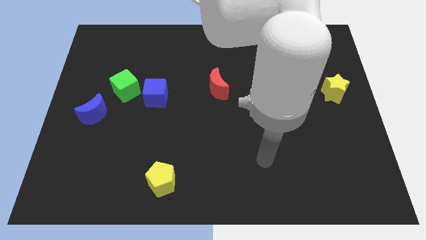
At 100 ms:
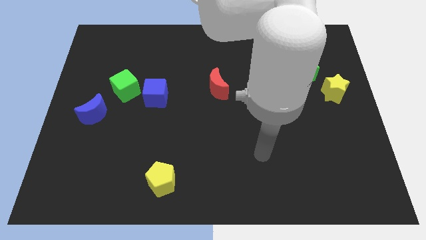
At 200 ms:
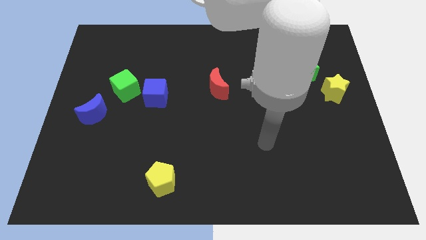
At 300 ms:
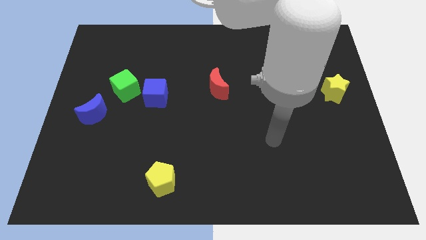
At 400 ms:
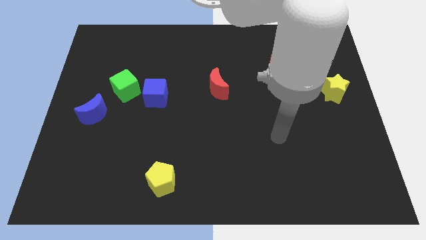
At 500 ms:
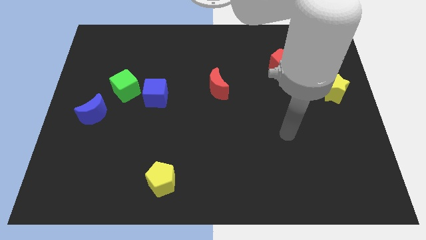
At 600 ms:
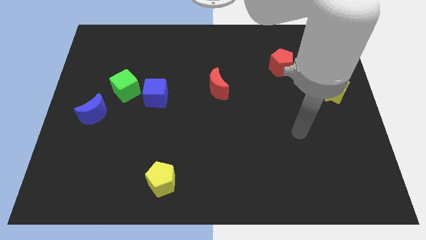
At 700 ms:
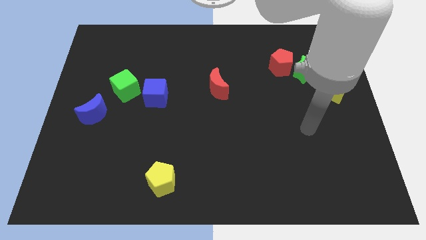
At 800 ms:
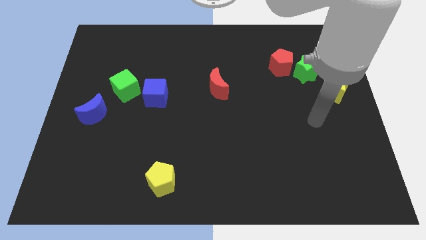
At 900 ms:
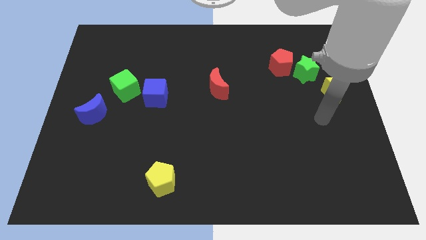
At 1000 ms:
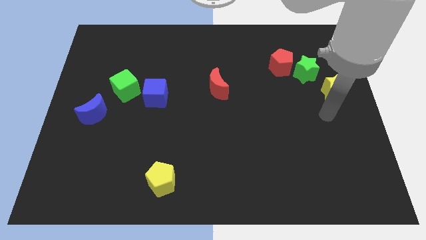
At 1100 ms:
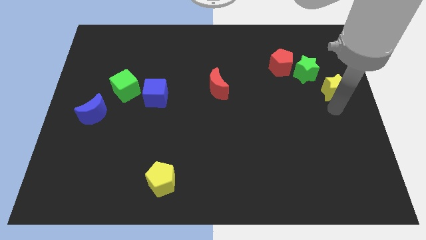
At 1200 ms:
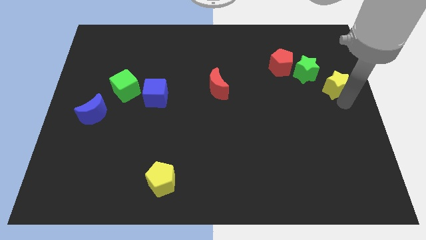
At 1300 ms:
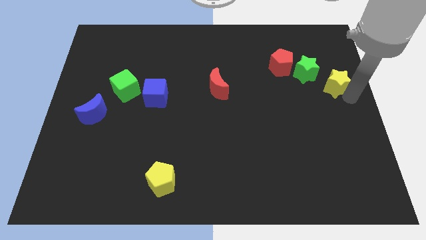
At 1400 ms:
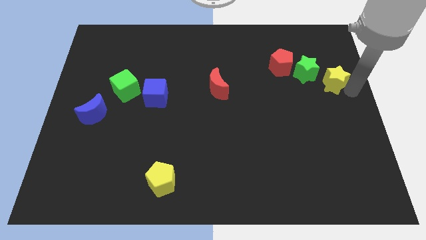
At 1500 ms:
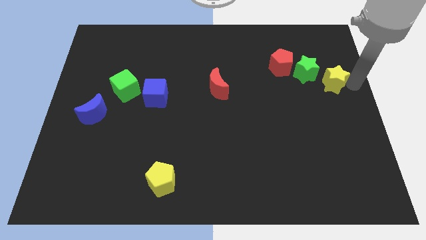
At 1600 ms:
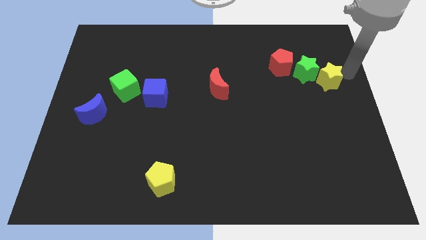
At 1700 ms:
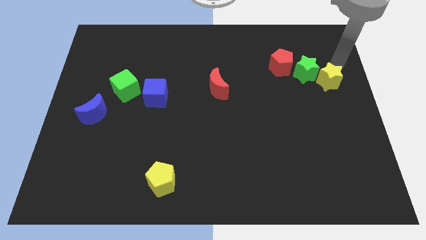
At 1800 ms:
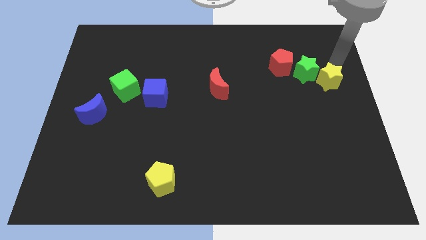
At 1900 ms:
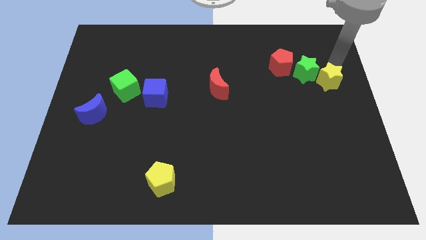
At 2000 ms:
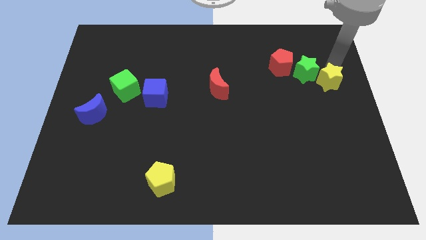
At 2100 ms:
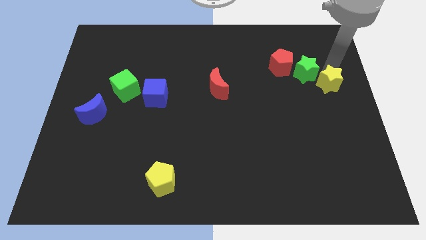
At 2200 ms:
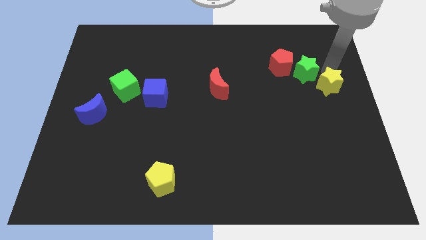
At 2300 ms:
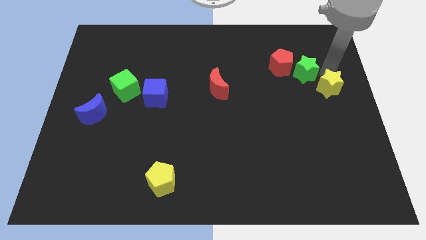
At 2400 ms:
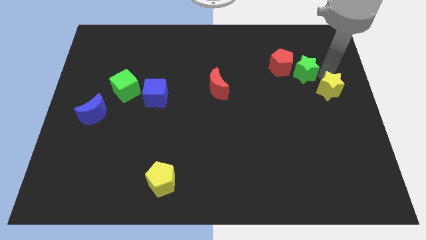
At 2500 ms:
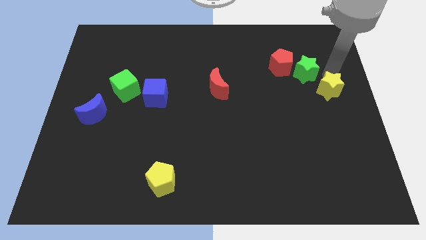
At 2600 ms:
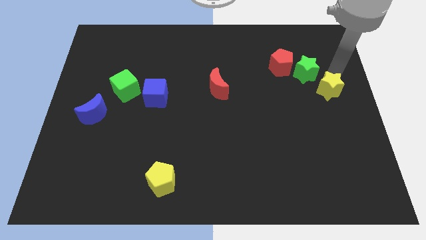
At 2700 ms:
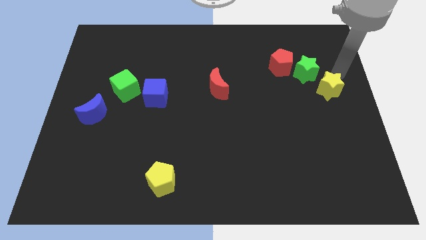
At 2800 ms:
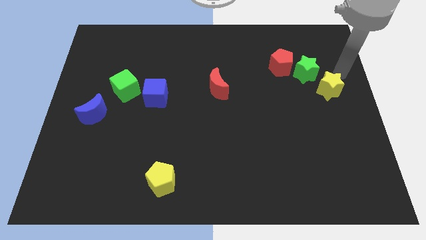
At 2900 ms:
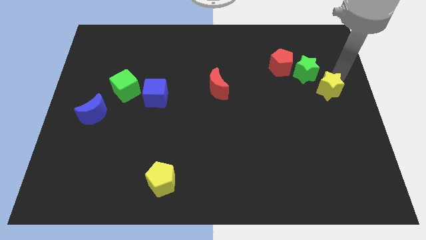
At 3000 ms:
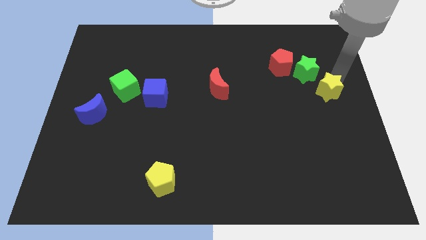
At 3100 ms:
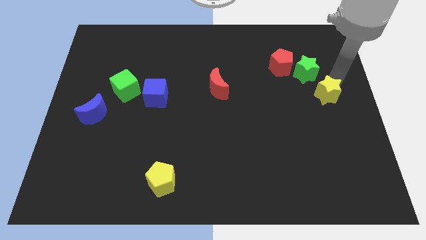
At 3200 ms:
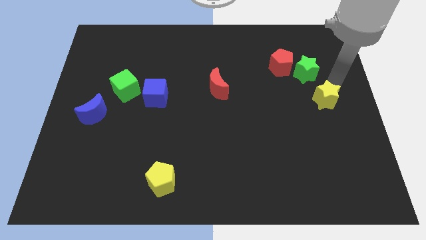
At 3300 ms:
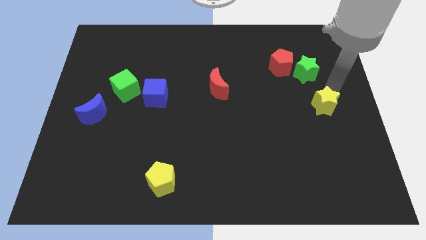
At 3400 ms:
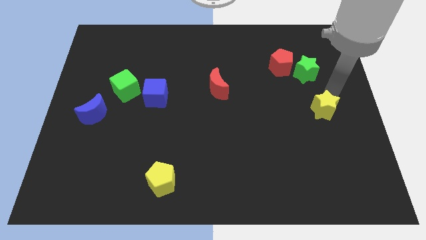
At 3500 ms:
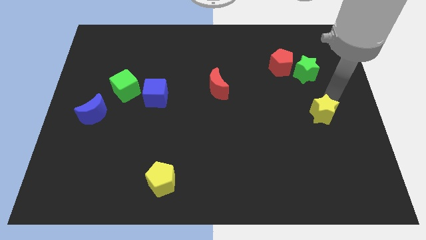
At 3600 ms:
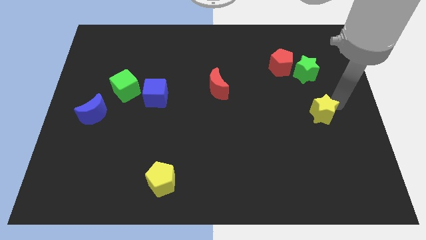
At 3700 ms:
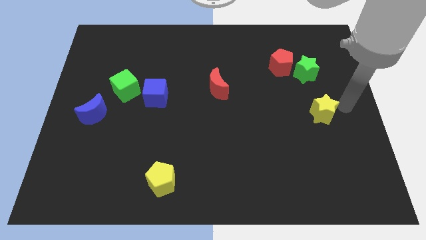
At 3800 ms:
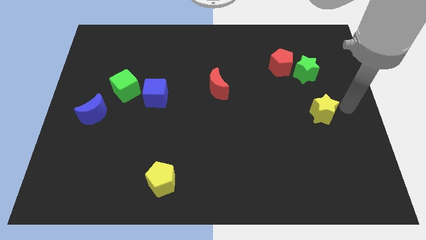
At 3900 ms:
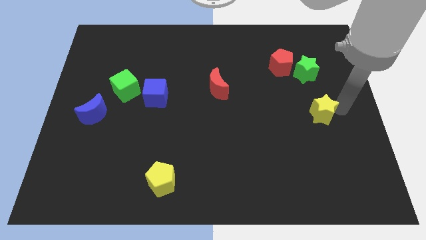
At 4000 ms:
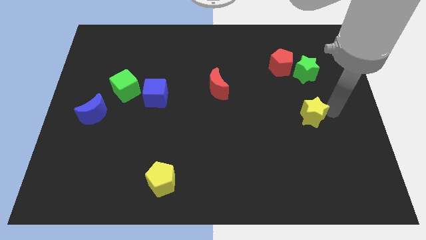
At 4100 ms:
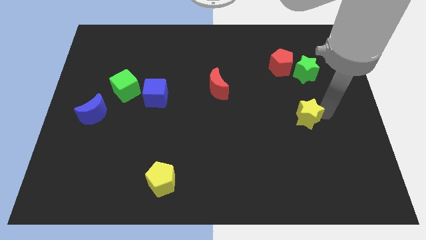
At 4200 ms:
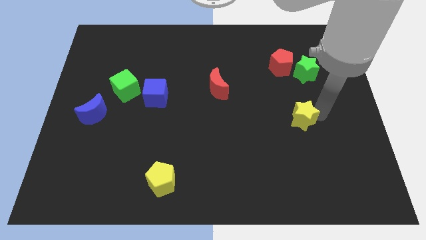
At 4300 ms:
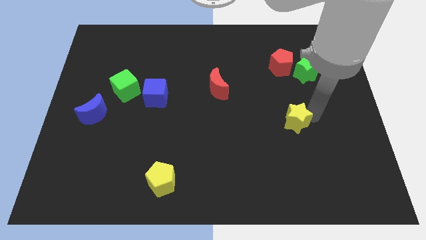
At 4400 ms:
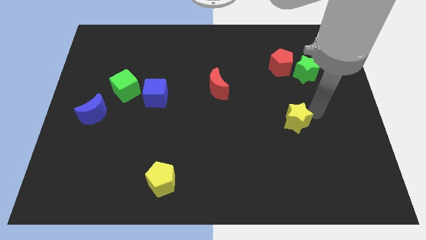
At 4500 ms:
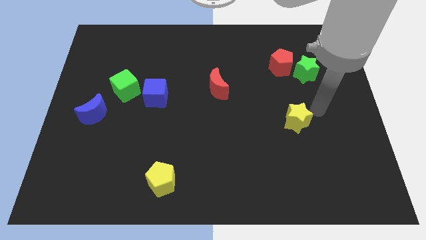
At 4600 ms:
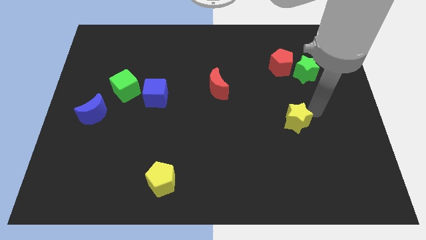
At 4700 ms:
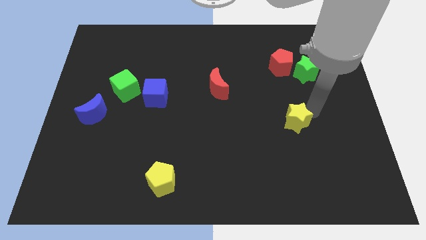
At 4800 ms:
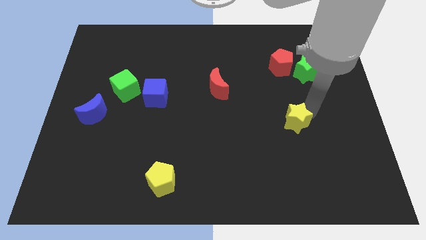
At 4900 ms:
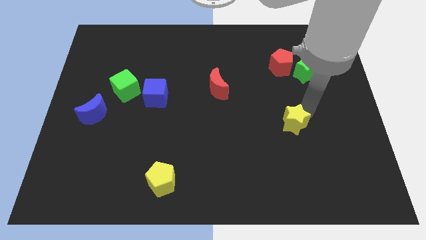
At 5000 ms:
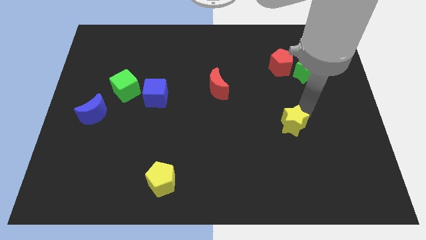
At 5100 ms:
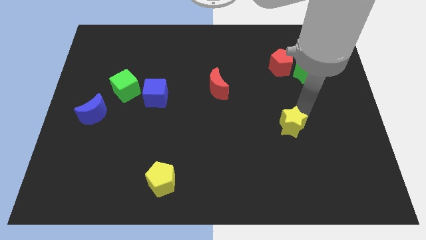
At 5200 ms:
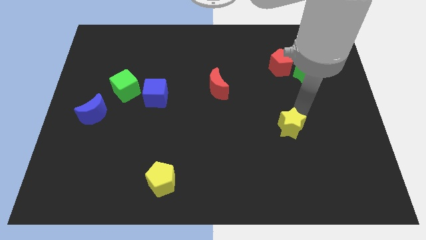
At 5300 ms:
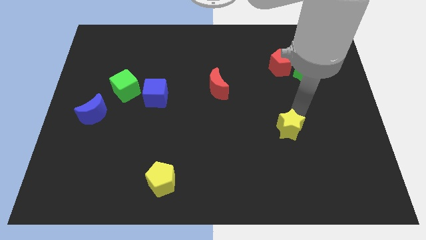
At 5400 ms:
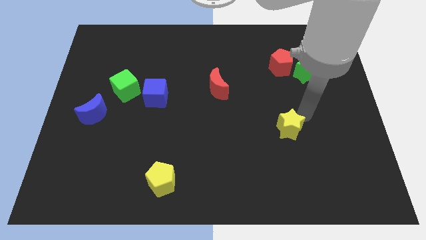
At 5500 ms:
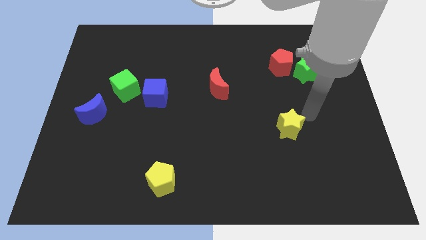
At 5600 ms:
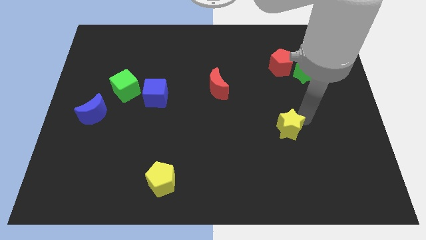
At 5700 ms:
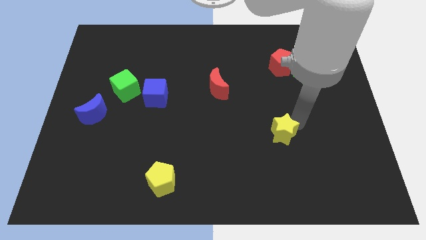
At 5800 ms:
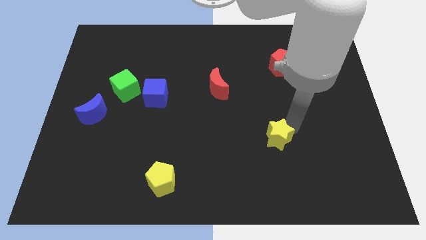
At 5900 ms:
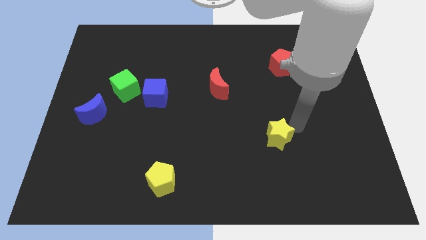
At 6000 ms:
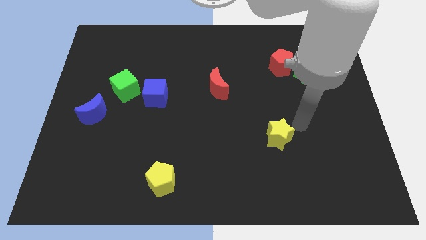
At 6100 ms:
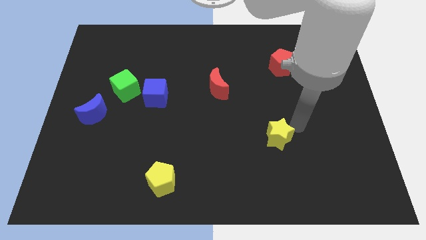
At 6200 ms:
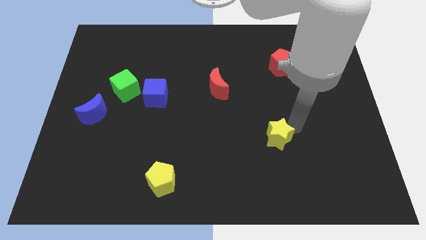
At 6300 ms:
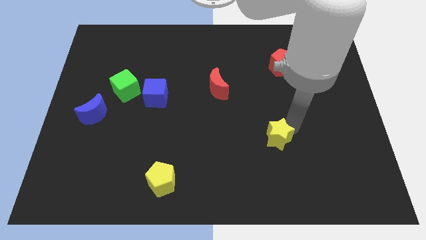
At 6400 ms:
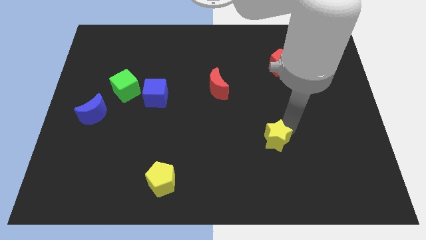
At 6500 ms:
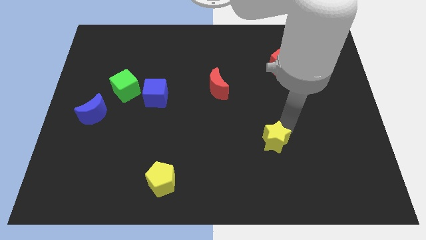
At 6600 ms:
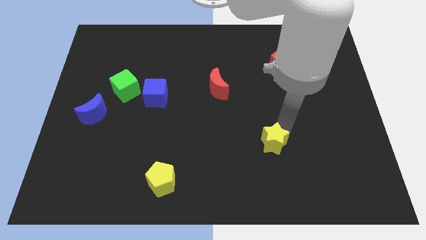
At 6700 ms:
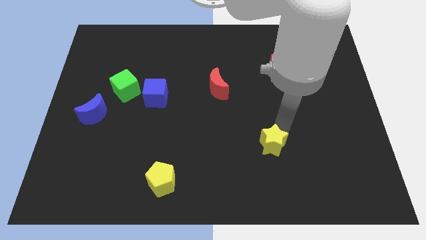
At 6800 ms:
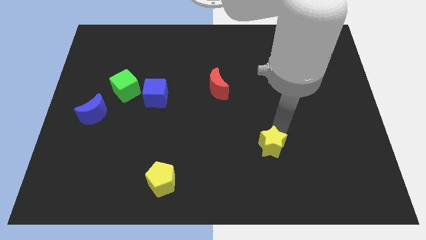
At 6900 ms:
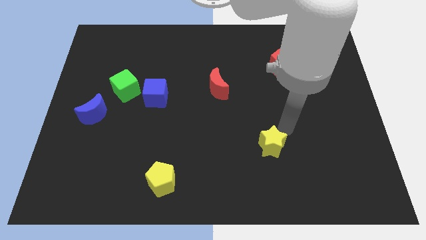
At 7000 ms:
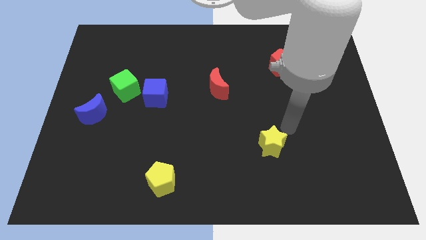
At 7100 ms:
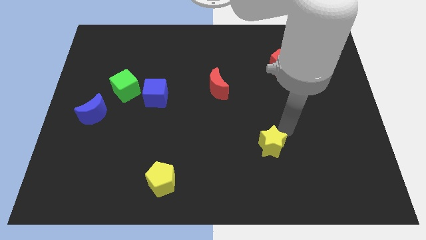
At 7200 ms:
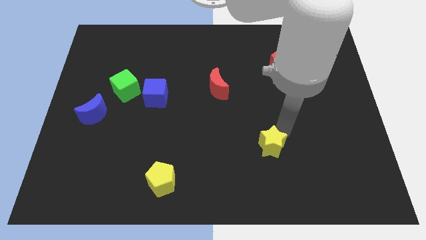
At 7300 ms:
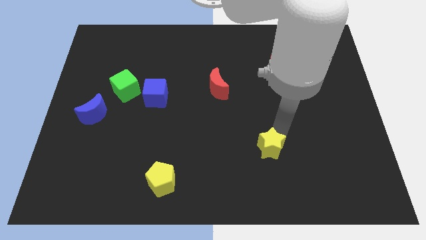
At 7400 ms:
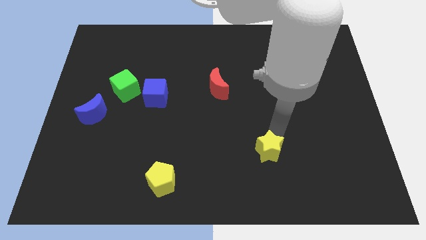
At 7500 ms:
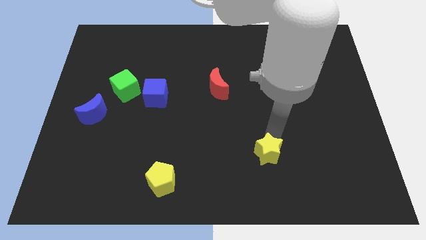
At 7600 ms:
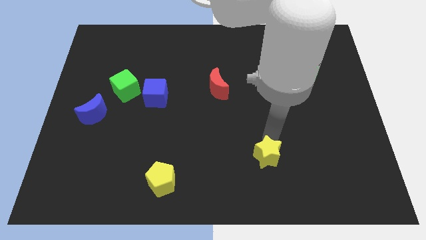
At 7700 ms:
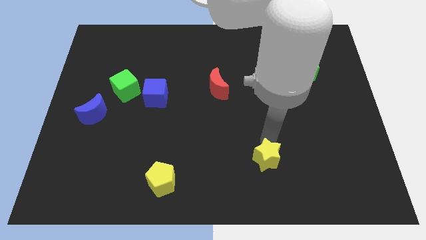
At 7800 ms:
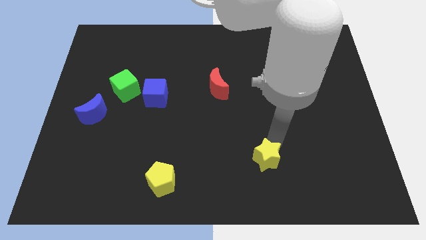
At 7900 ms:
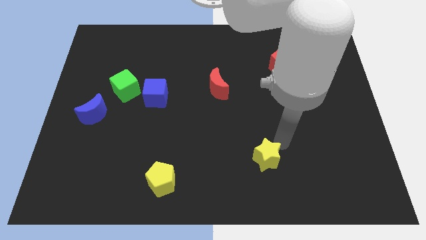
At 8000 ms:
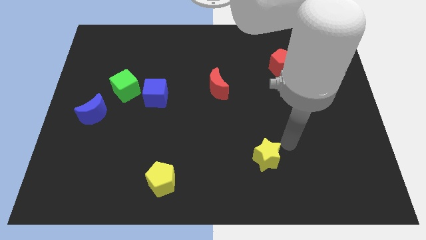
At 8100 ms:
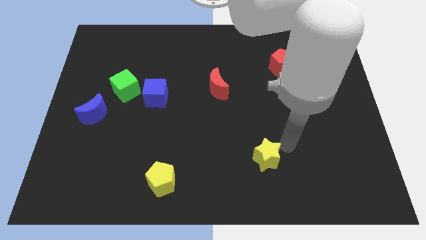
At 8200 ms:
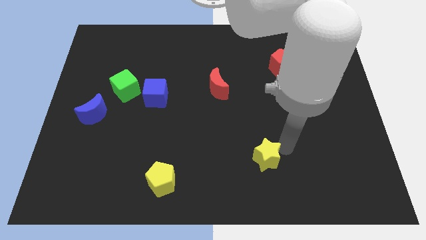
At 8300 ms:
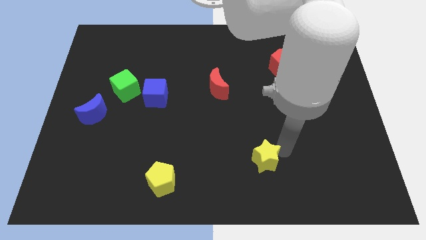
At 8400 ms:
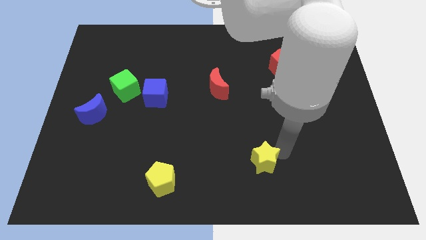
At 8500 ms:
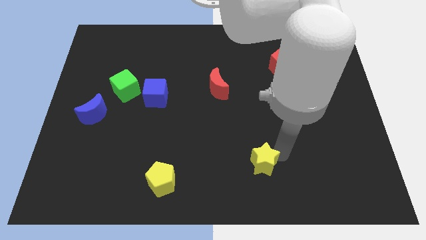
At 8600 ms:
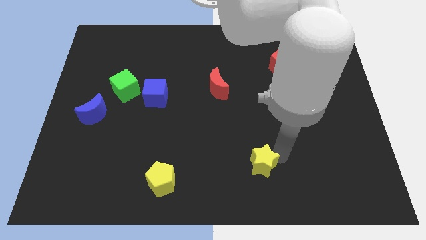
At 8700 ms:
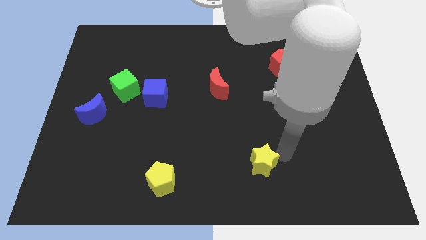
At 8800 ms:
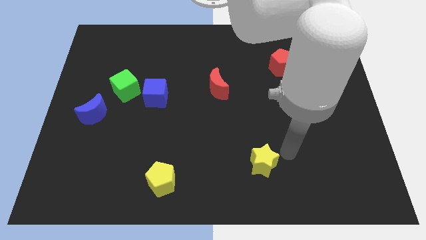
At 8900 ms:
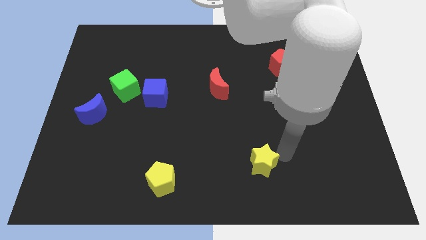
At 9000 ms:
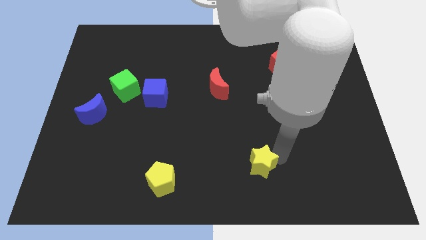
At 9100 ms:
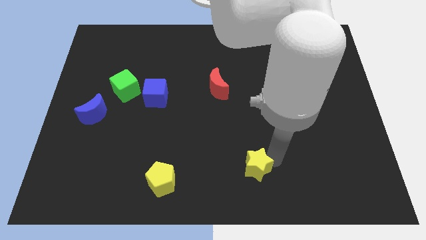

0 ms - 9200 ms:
put the yellow star to the bottom
